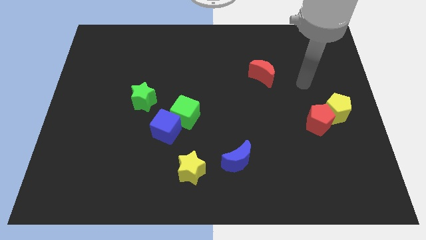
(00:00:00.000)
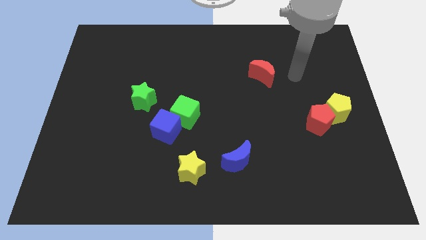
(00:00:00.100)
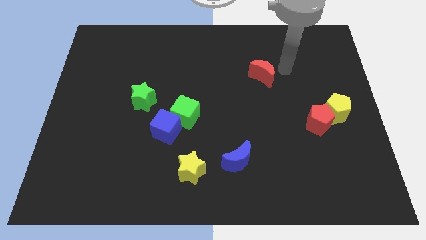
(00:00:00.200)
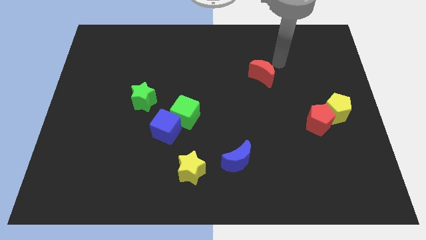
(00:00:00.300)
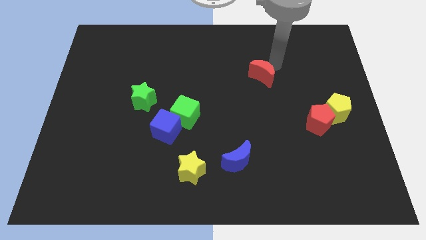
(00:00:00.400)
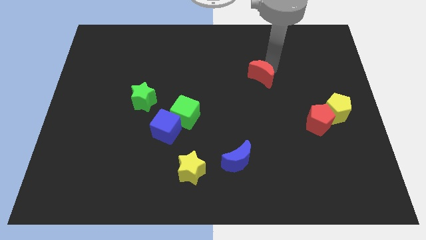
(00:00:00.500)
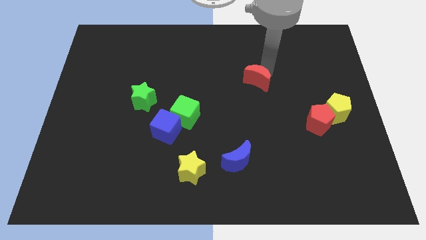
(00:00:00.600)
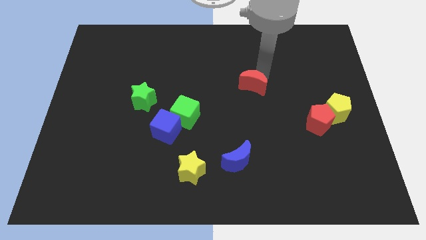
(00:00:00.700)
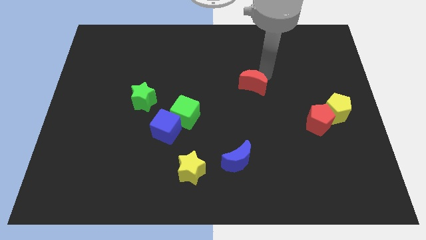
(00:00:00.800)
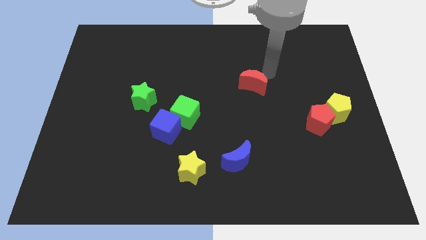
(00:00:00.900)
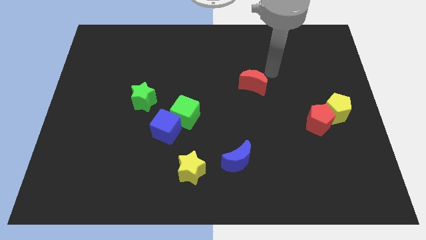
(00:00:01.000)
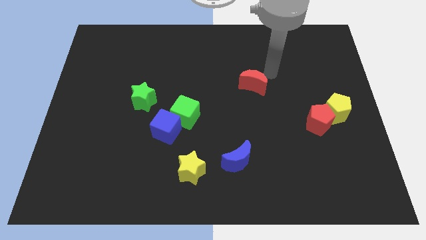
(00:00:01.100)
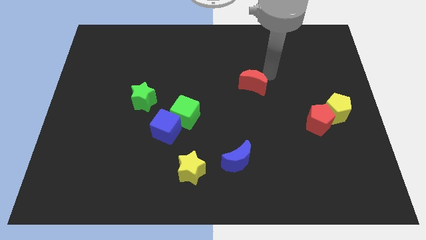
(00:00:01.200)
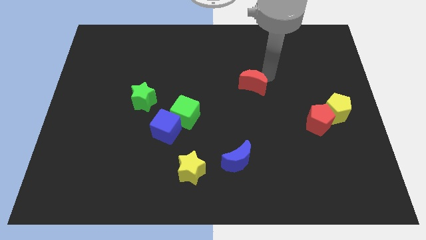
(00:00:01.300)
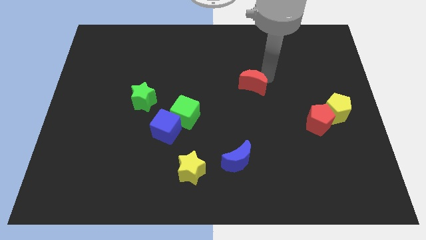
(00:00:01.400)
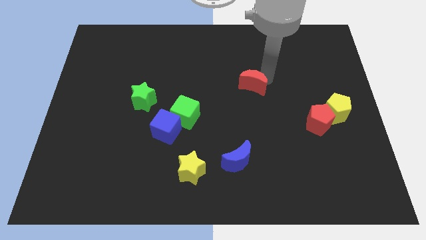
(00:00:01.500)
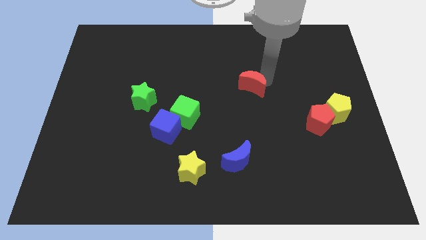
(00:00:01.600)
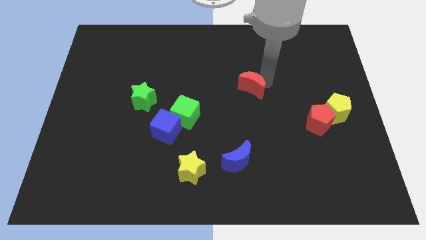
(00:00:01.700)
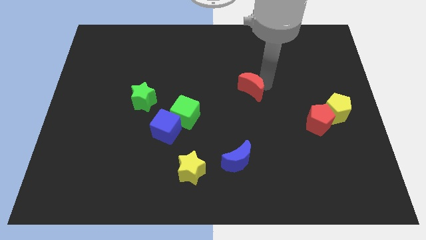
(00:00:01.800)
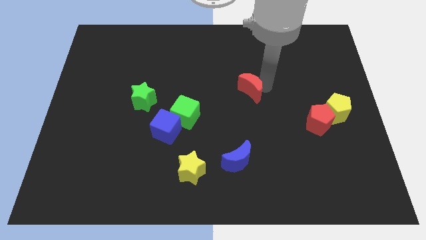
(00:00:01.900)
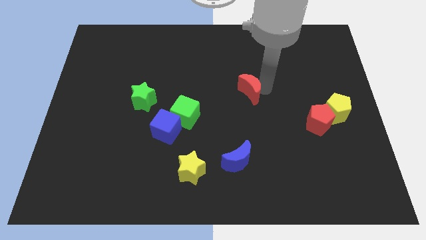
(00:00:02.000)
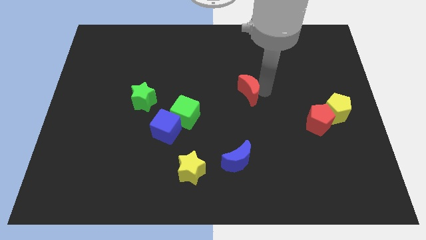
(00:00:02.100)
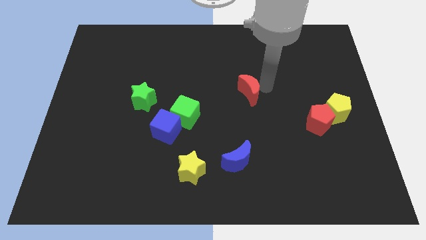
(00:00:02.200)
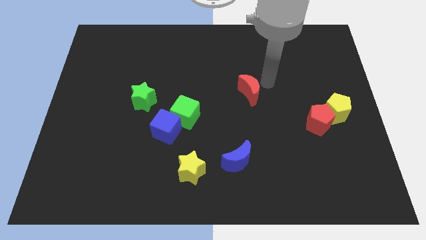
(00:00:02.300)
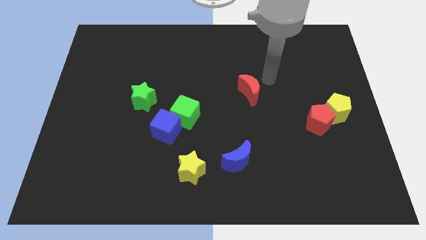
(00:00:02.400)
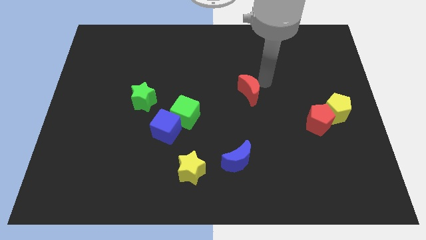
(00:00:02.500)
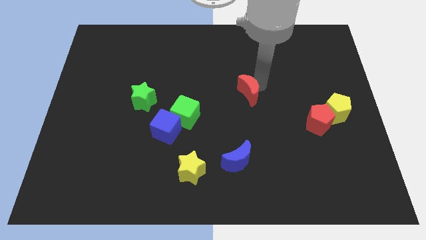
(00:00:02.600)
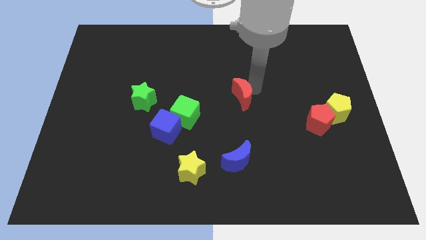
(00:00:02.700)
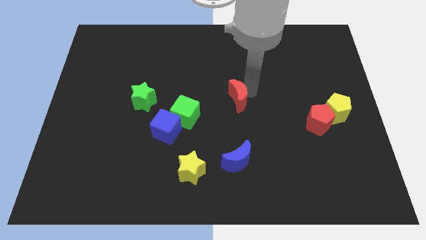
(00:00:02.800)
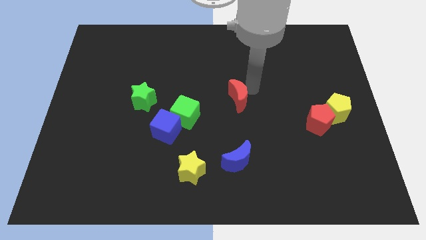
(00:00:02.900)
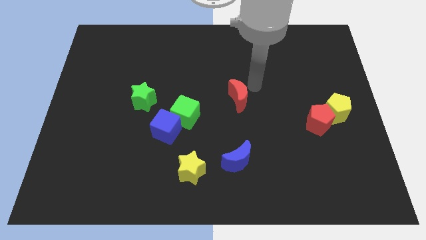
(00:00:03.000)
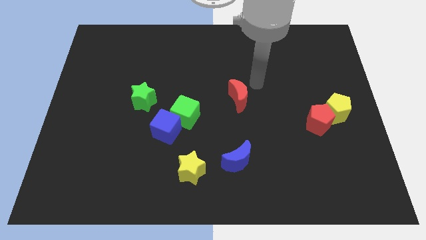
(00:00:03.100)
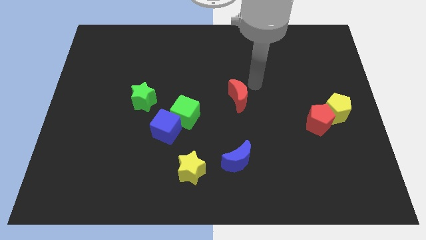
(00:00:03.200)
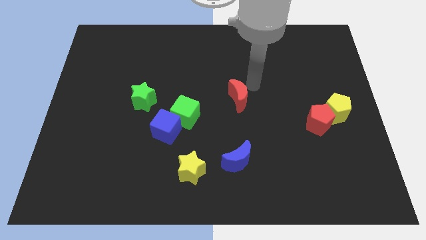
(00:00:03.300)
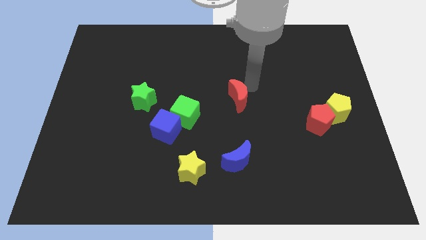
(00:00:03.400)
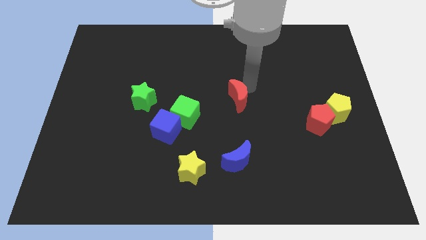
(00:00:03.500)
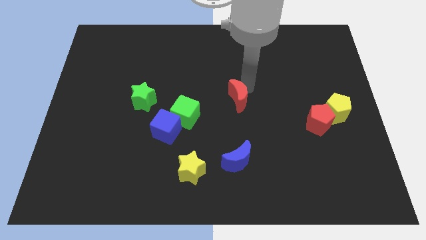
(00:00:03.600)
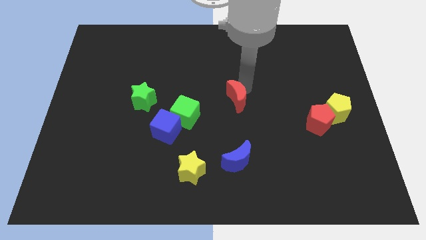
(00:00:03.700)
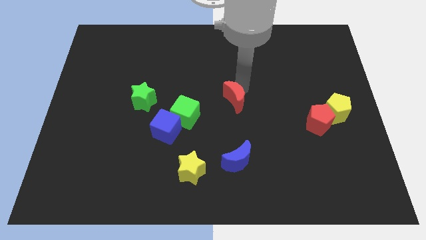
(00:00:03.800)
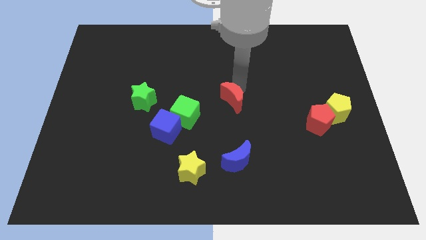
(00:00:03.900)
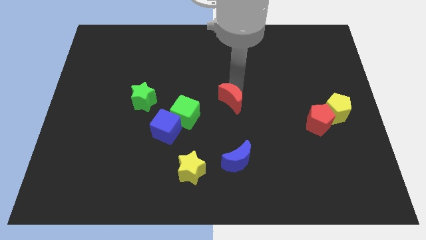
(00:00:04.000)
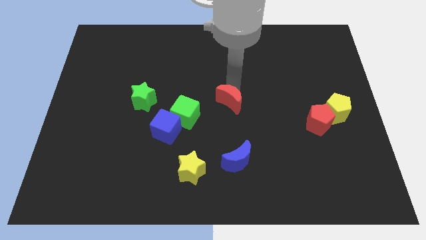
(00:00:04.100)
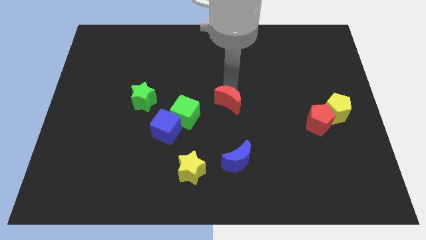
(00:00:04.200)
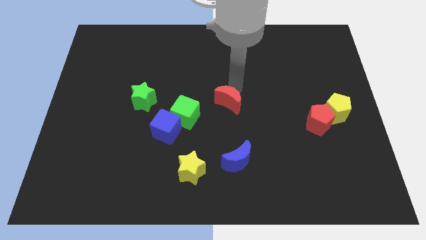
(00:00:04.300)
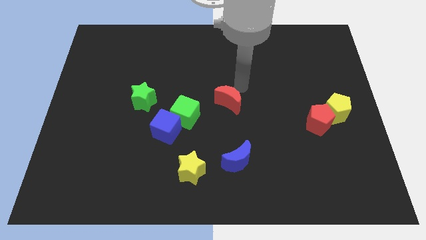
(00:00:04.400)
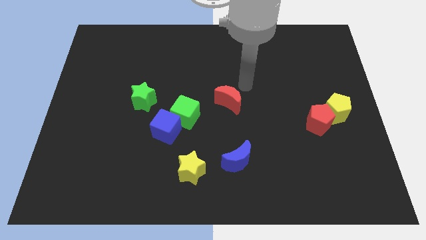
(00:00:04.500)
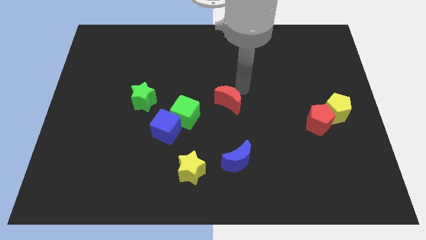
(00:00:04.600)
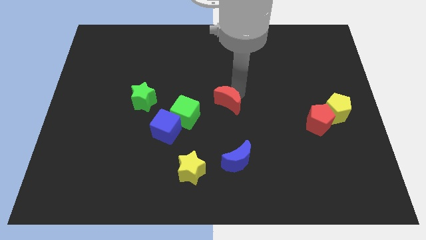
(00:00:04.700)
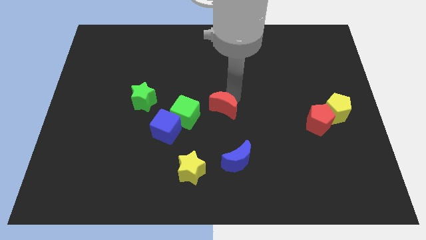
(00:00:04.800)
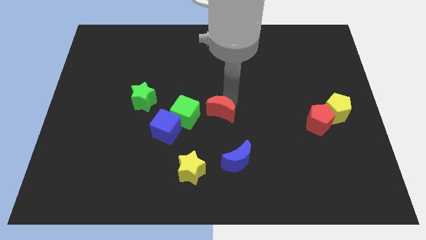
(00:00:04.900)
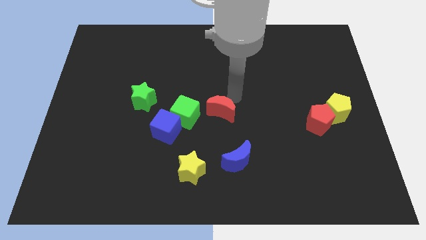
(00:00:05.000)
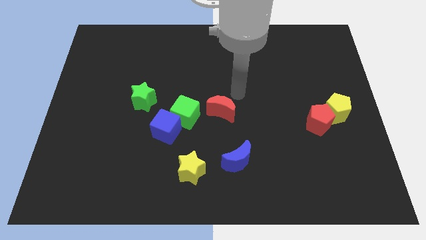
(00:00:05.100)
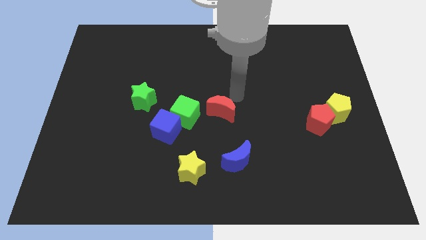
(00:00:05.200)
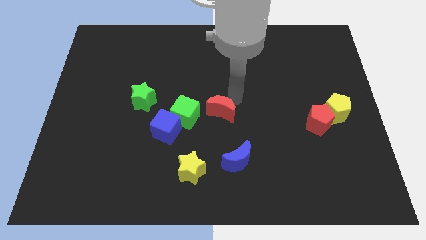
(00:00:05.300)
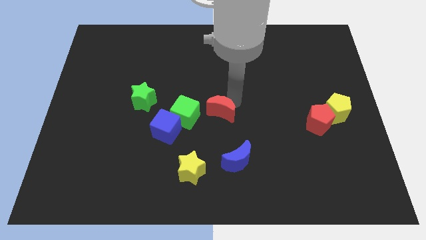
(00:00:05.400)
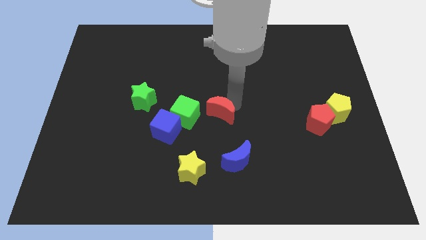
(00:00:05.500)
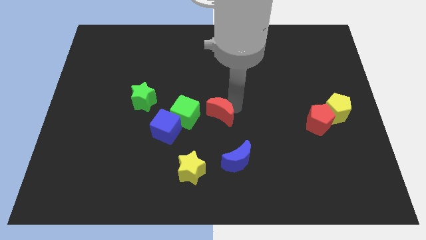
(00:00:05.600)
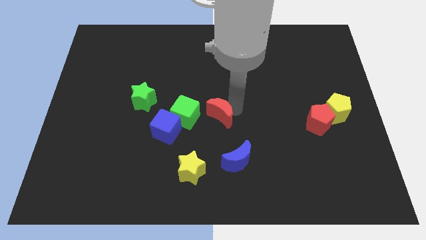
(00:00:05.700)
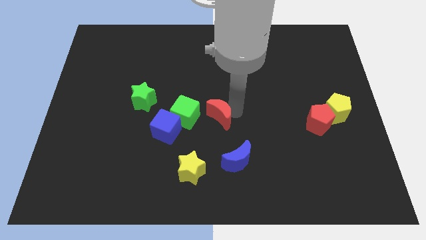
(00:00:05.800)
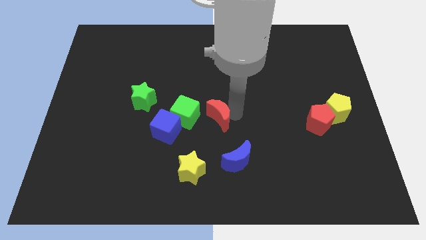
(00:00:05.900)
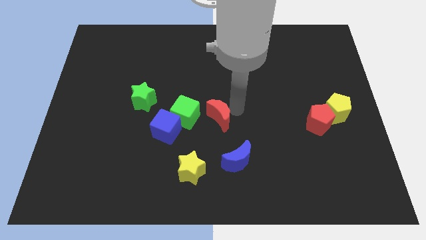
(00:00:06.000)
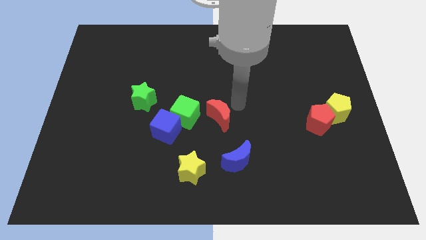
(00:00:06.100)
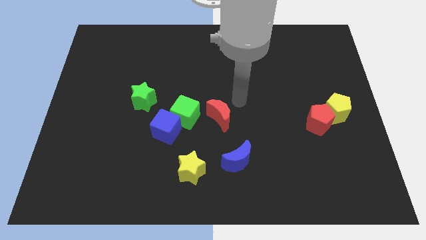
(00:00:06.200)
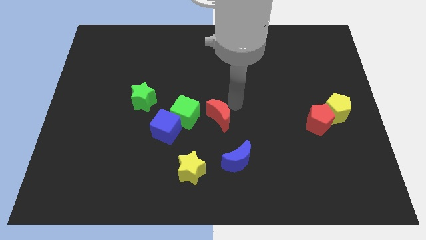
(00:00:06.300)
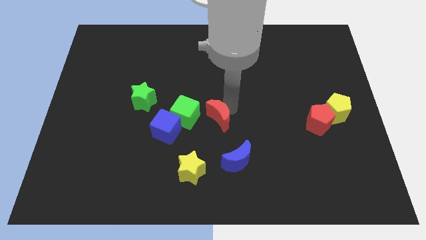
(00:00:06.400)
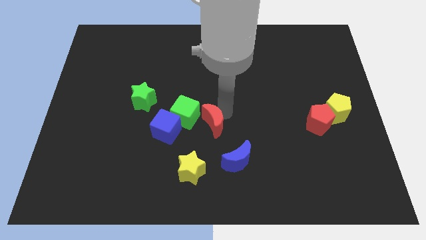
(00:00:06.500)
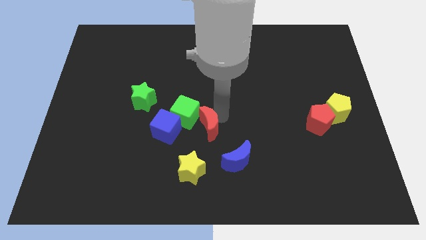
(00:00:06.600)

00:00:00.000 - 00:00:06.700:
move the red moon down and to the left

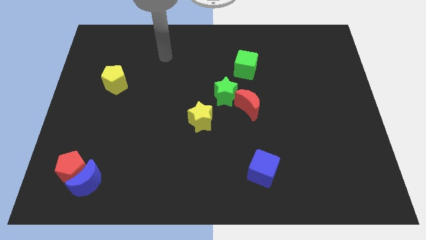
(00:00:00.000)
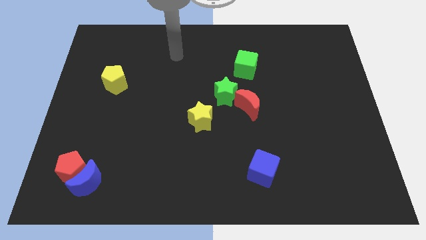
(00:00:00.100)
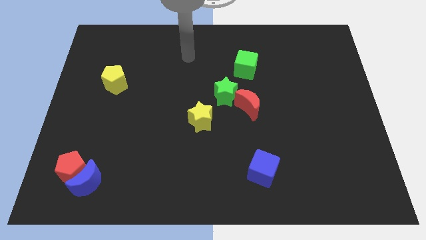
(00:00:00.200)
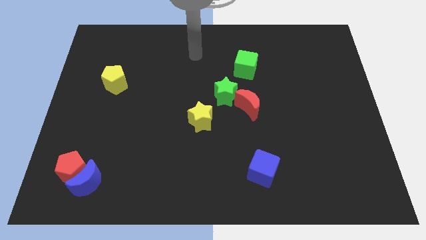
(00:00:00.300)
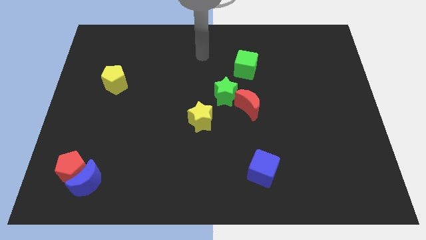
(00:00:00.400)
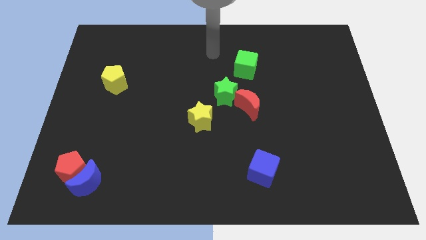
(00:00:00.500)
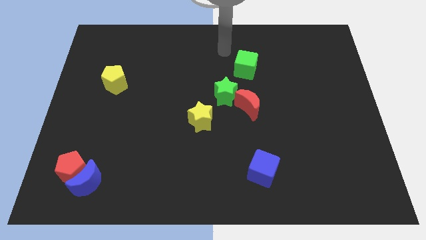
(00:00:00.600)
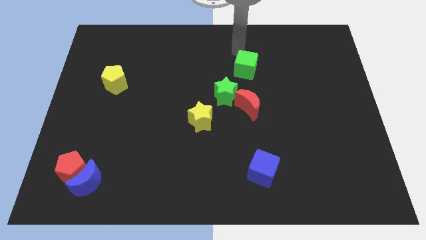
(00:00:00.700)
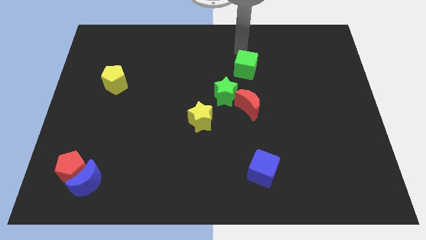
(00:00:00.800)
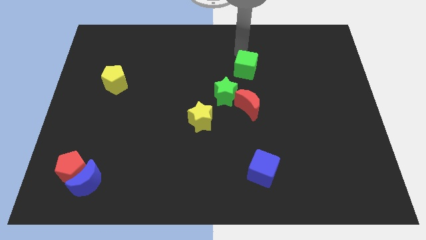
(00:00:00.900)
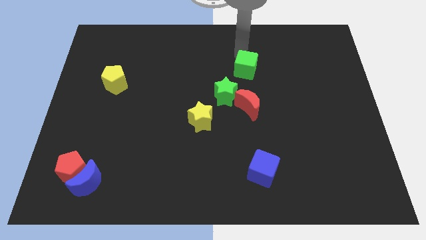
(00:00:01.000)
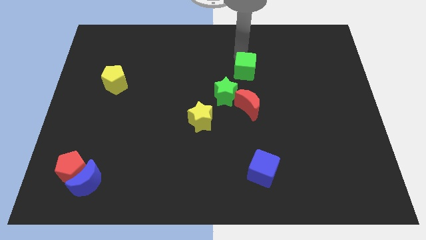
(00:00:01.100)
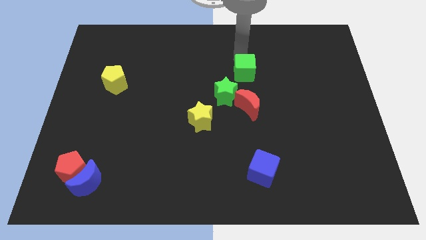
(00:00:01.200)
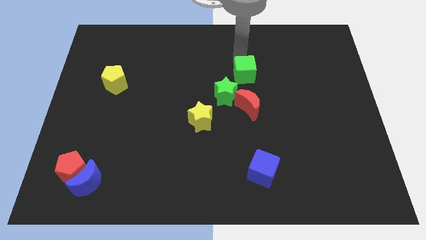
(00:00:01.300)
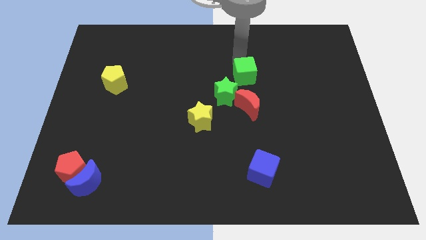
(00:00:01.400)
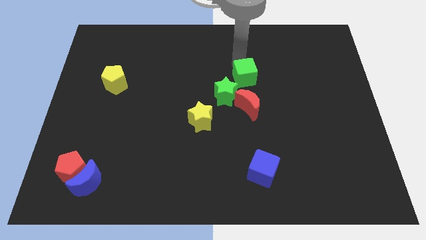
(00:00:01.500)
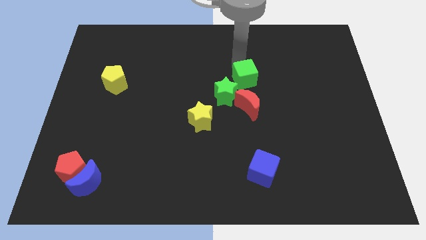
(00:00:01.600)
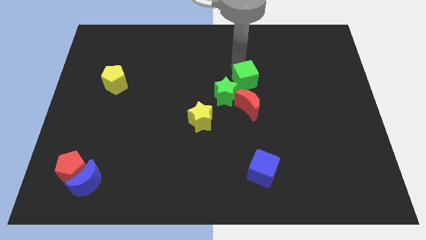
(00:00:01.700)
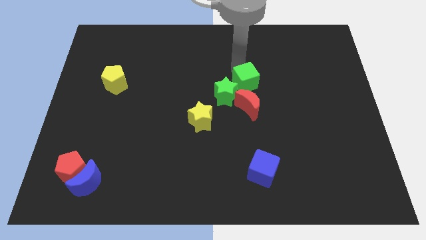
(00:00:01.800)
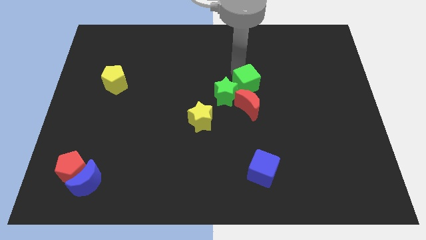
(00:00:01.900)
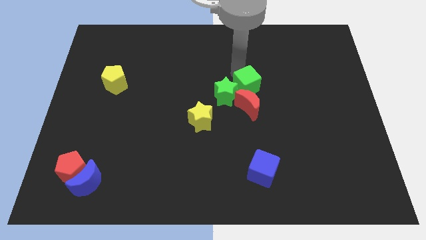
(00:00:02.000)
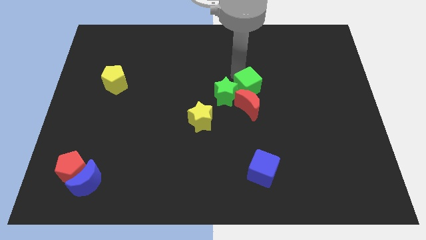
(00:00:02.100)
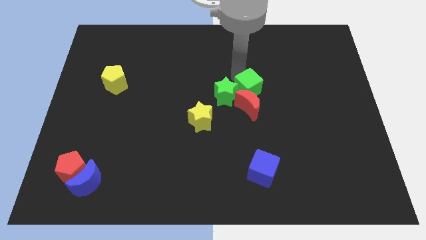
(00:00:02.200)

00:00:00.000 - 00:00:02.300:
push the green cube down slightly
